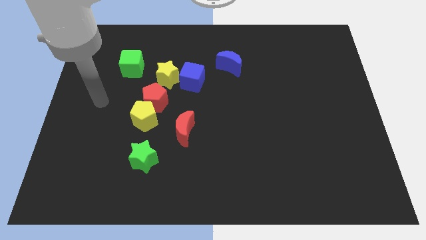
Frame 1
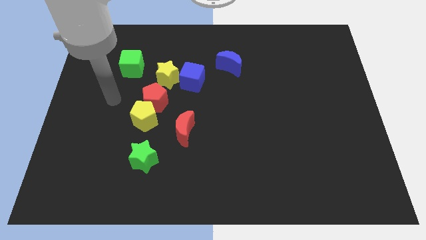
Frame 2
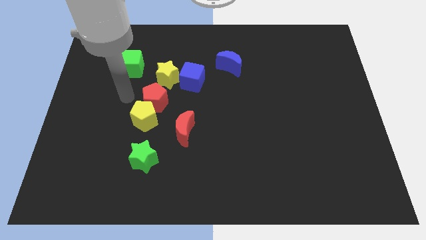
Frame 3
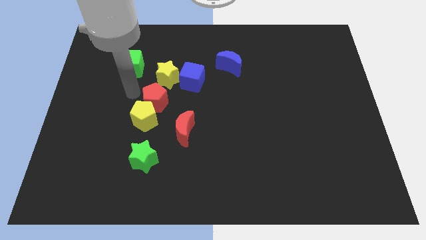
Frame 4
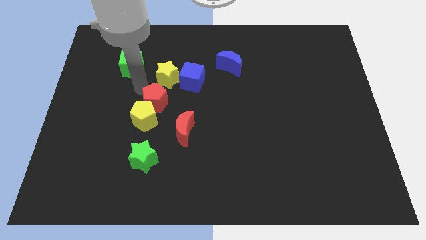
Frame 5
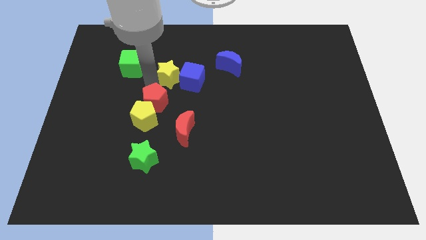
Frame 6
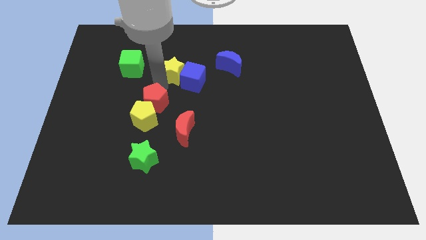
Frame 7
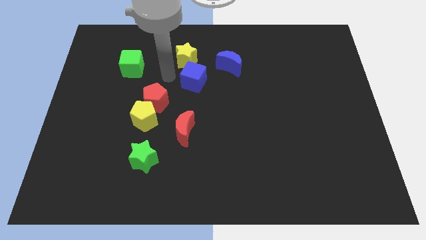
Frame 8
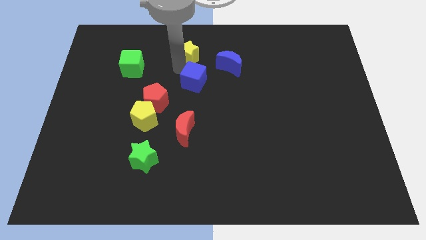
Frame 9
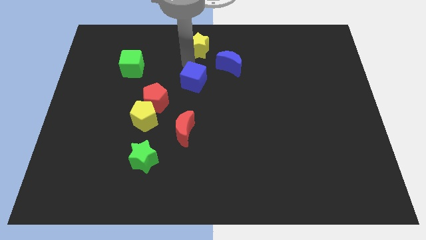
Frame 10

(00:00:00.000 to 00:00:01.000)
move the blue cube away from the yellow star

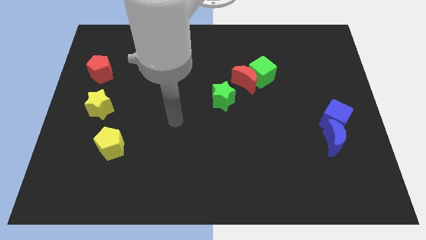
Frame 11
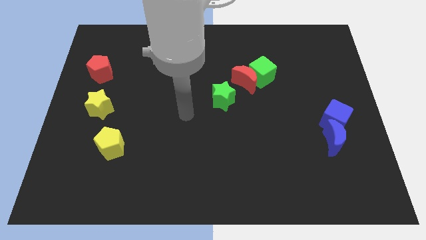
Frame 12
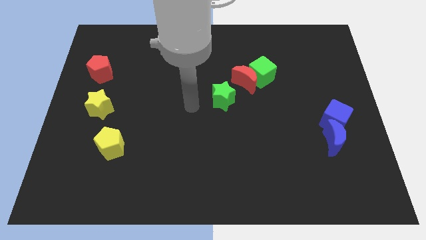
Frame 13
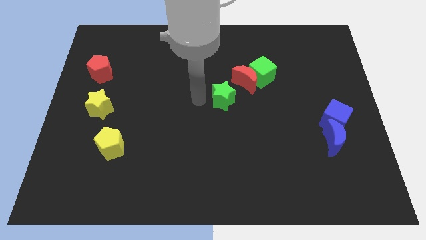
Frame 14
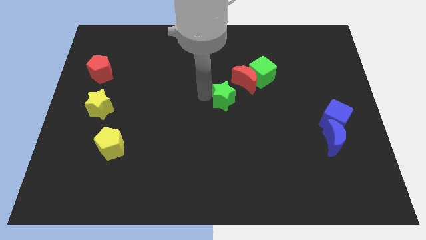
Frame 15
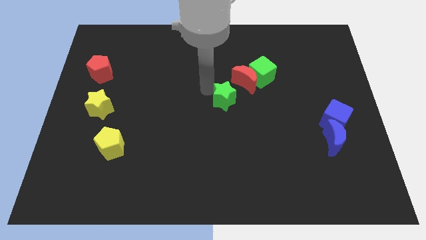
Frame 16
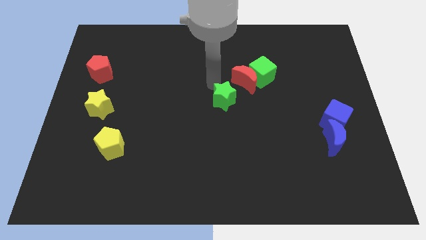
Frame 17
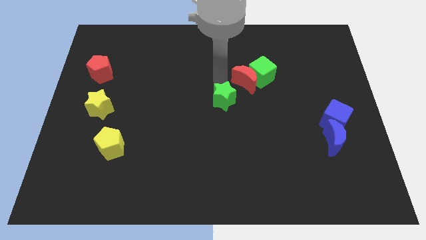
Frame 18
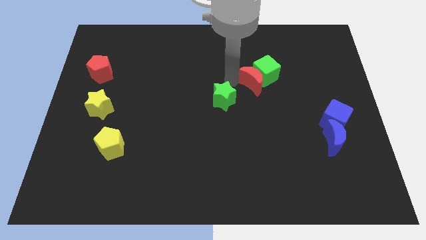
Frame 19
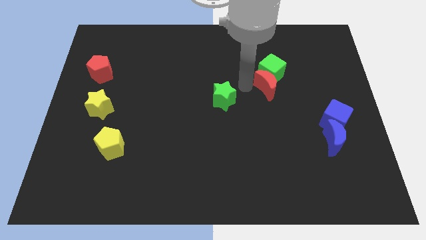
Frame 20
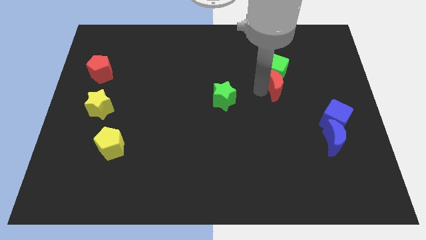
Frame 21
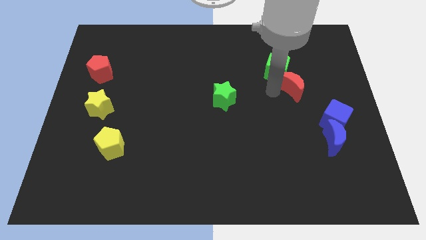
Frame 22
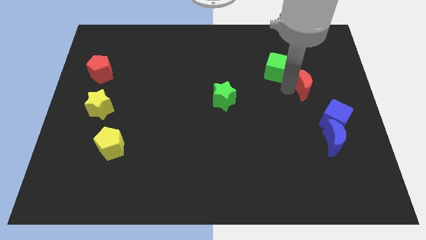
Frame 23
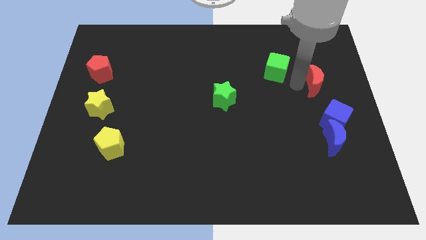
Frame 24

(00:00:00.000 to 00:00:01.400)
separate the green cube from the red moon

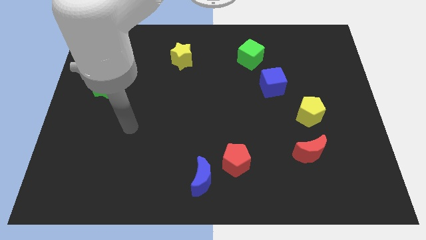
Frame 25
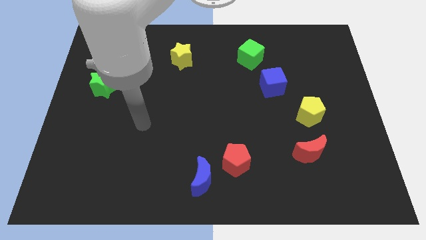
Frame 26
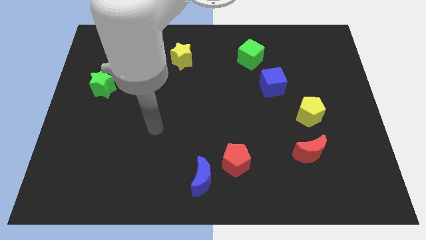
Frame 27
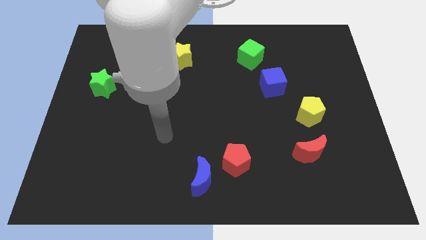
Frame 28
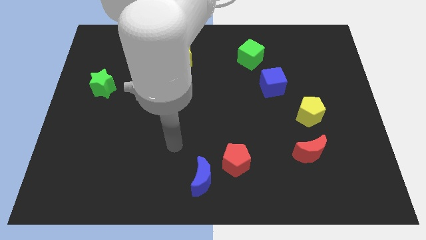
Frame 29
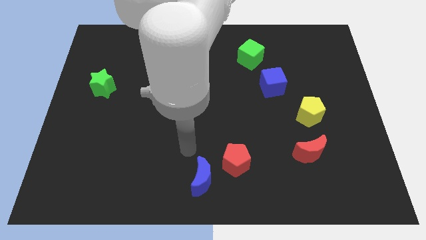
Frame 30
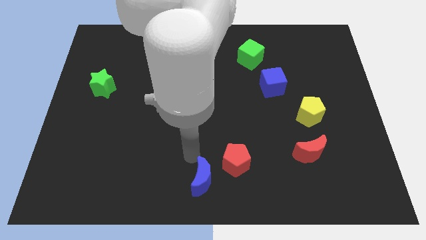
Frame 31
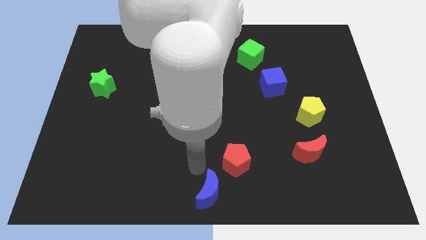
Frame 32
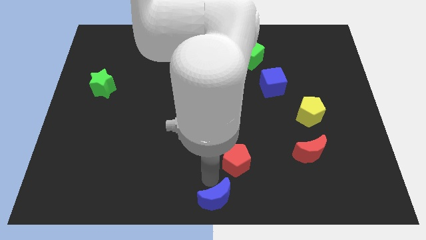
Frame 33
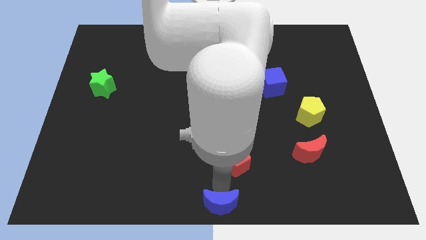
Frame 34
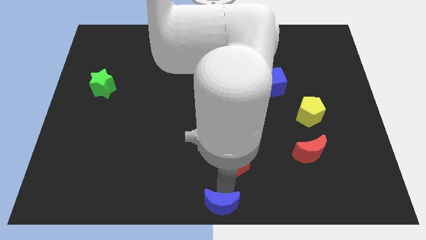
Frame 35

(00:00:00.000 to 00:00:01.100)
pull the red pentagon apart from the blue moon

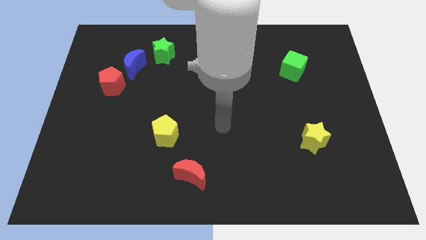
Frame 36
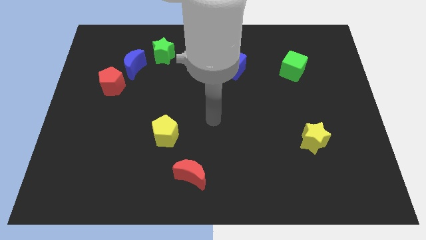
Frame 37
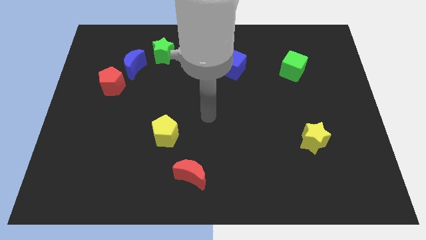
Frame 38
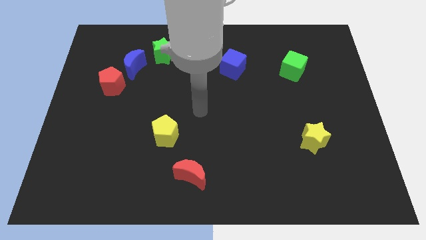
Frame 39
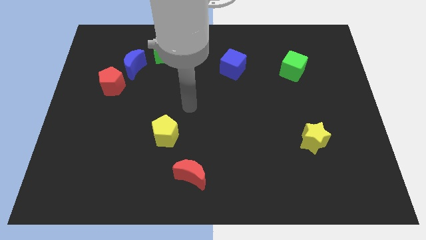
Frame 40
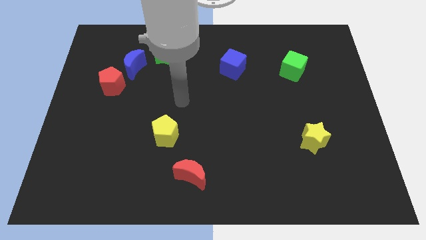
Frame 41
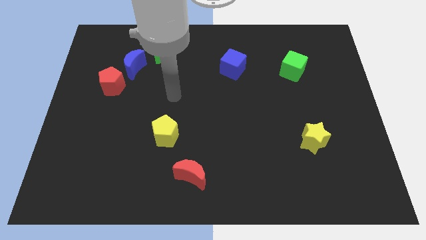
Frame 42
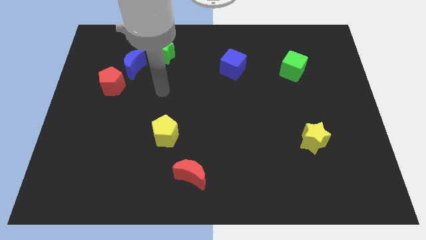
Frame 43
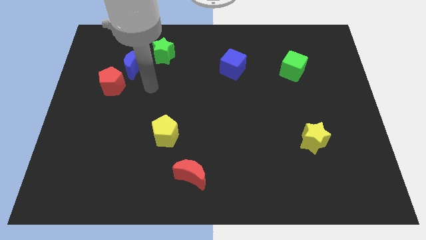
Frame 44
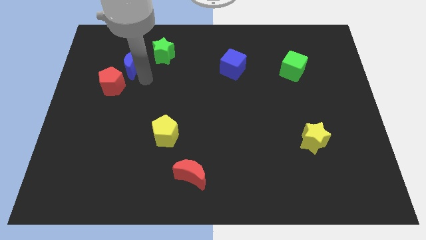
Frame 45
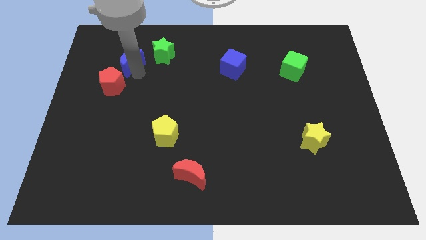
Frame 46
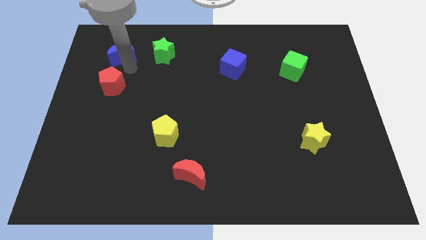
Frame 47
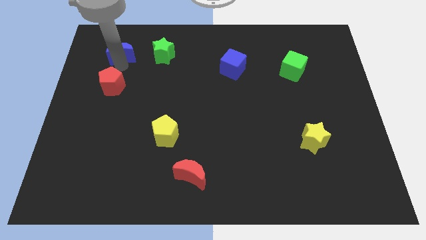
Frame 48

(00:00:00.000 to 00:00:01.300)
separate the red pentagon from the blue moon

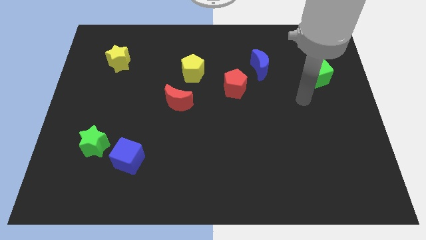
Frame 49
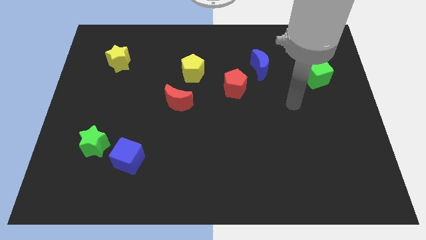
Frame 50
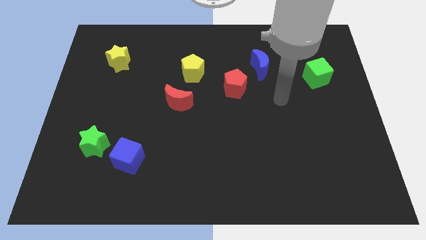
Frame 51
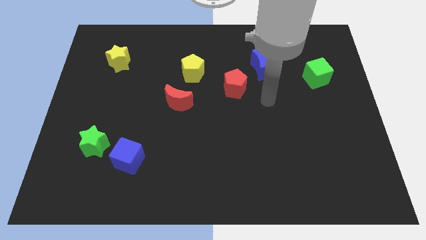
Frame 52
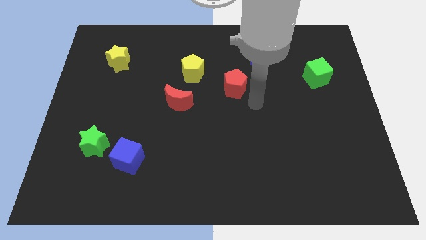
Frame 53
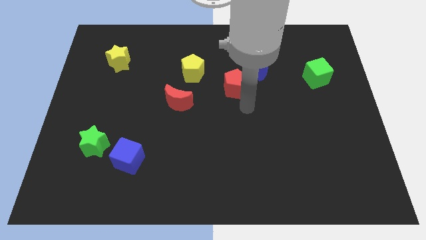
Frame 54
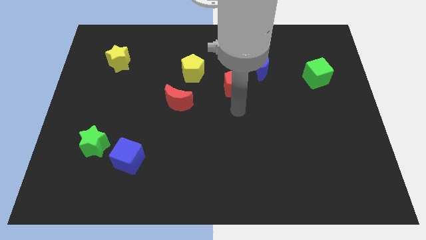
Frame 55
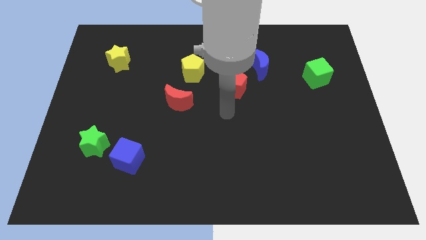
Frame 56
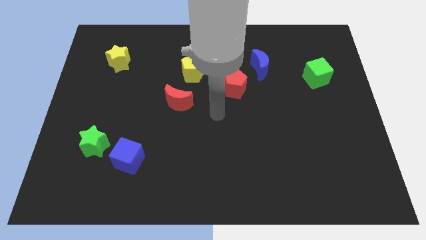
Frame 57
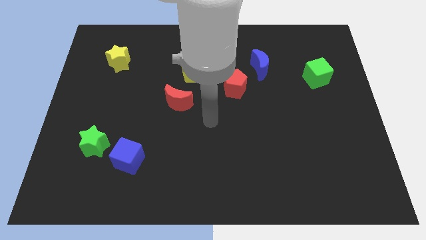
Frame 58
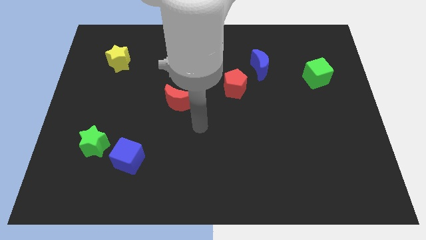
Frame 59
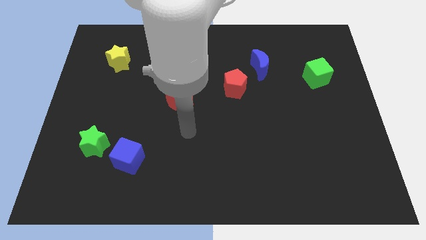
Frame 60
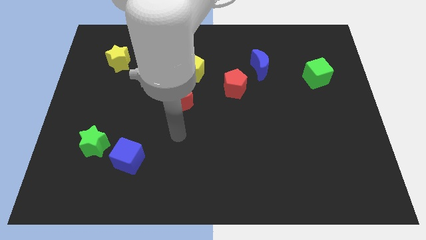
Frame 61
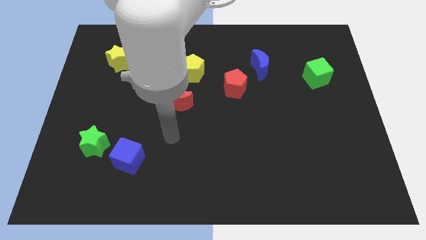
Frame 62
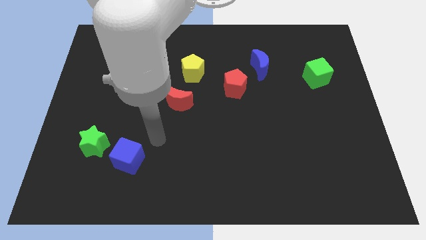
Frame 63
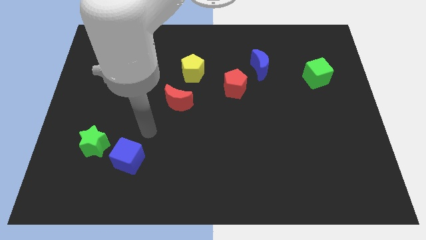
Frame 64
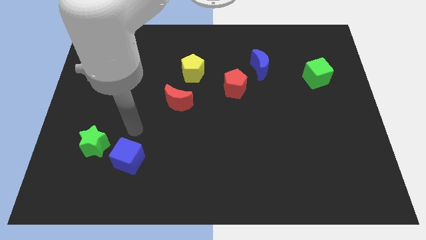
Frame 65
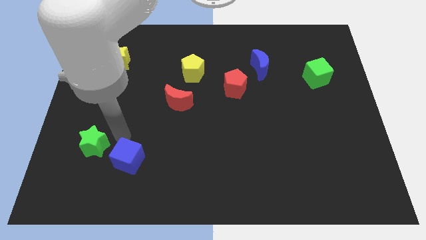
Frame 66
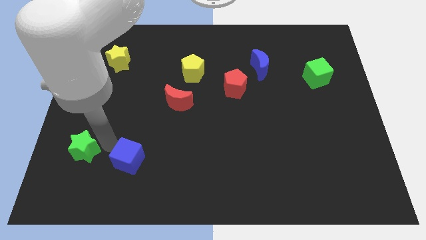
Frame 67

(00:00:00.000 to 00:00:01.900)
separate the blue cube from the green star

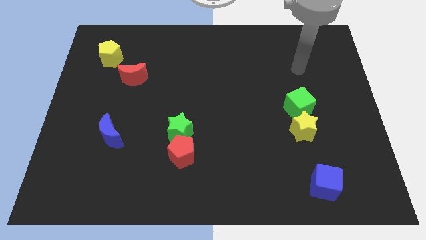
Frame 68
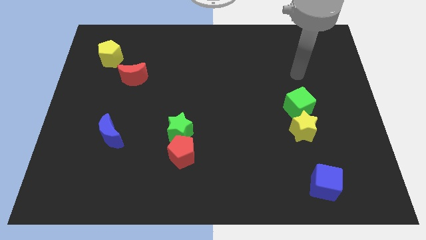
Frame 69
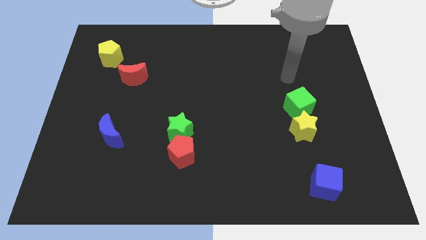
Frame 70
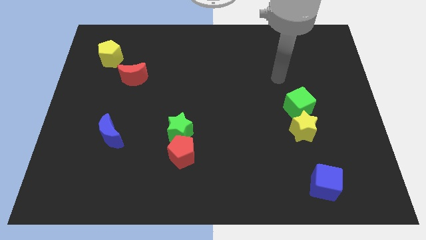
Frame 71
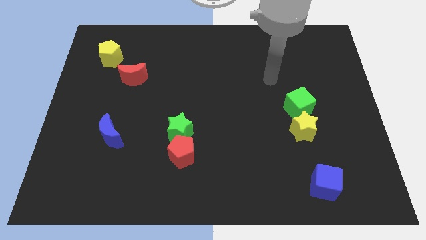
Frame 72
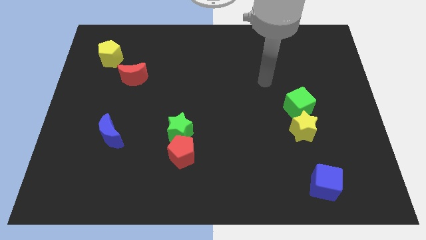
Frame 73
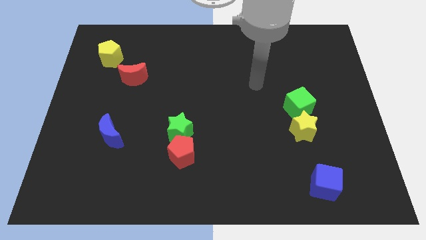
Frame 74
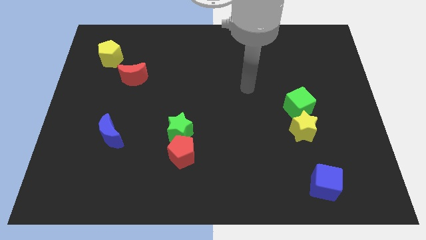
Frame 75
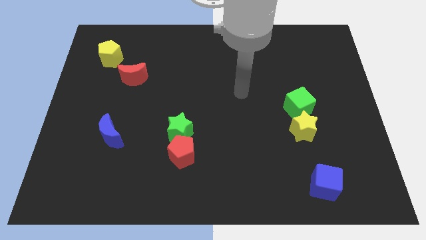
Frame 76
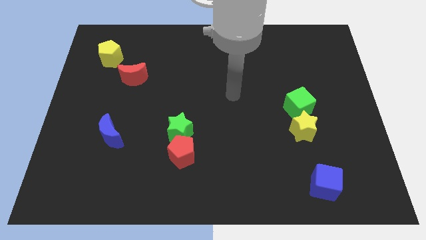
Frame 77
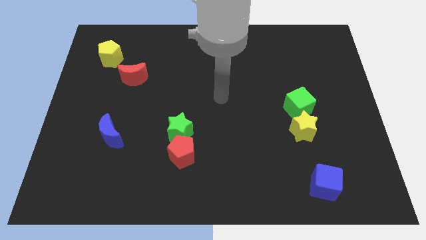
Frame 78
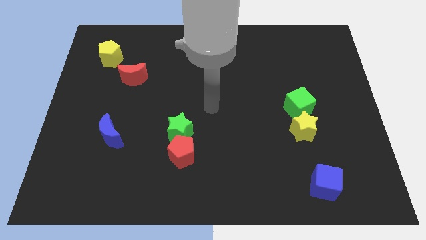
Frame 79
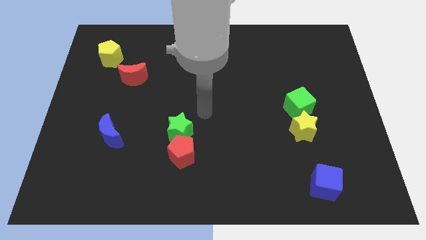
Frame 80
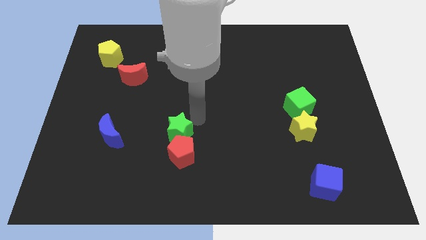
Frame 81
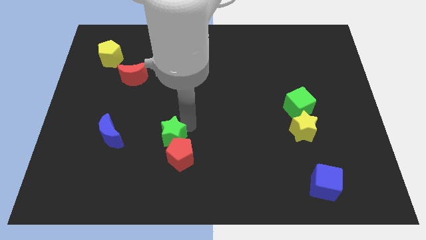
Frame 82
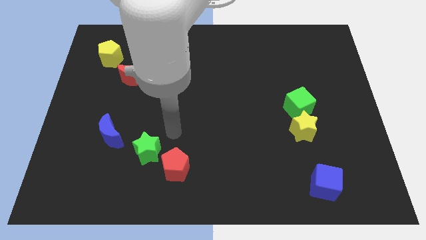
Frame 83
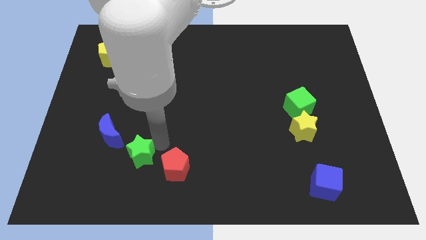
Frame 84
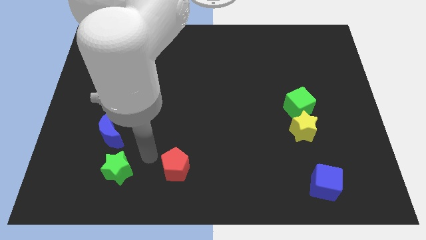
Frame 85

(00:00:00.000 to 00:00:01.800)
move the red pentagon away from the green star

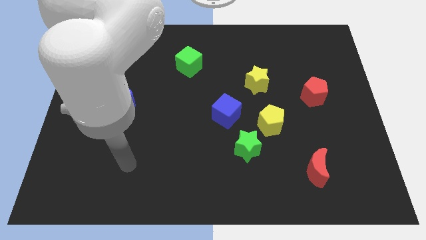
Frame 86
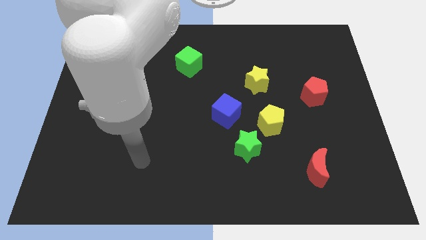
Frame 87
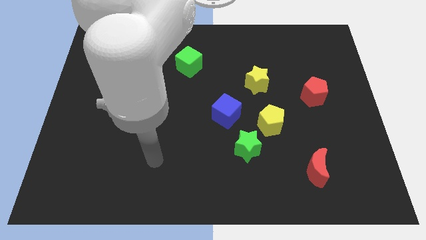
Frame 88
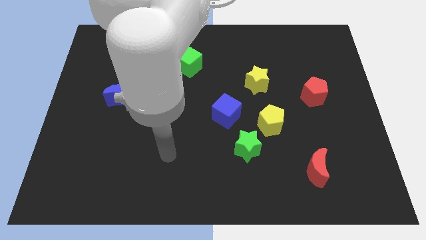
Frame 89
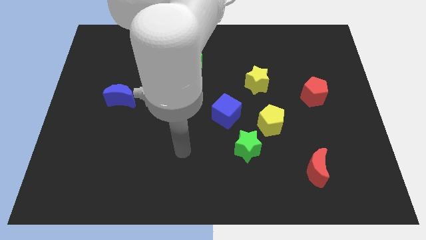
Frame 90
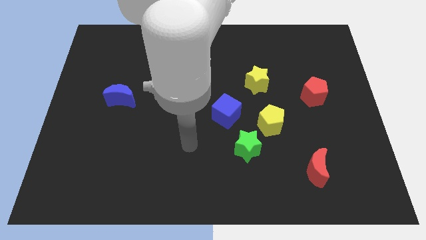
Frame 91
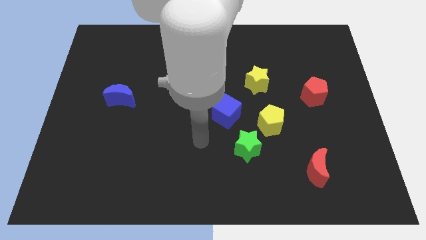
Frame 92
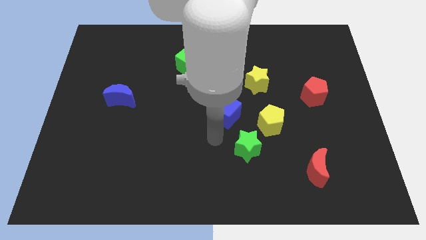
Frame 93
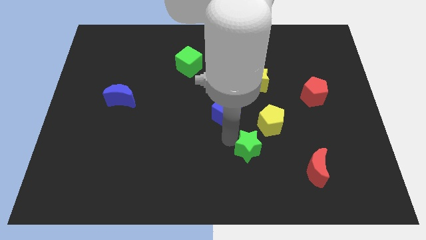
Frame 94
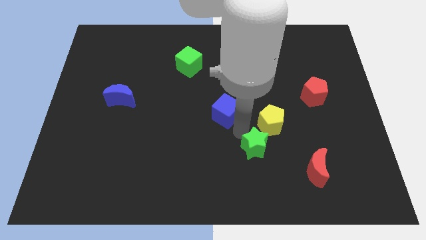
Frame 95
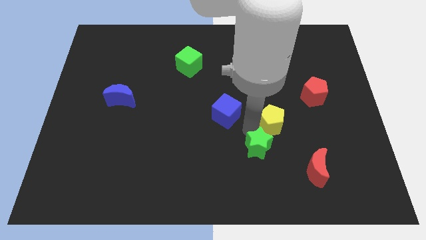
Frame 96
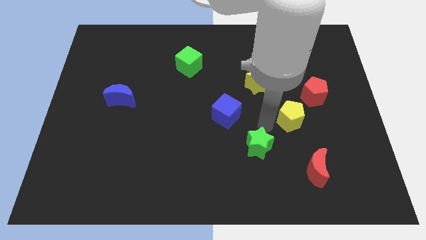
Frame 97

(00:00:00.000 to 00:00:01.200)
move the green star away from the yellow pentagon
